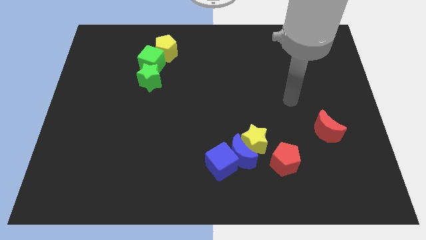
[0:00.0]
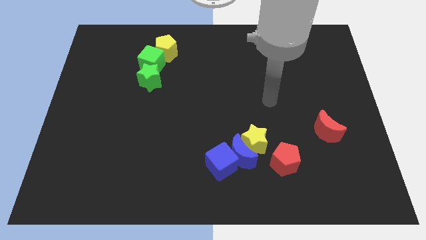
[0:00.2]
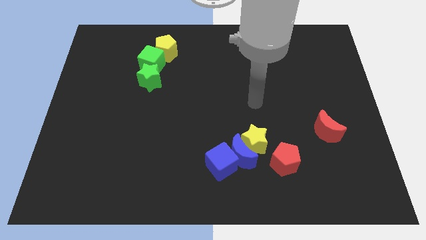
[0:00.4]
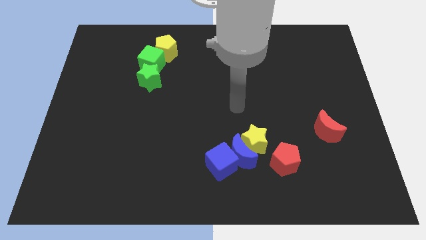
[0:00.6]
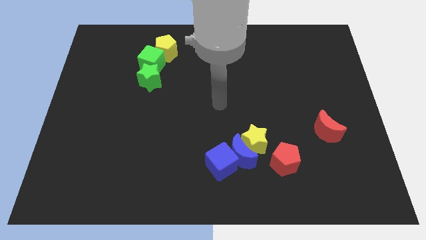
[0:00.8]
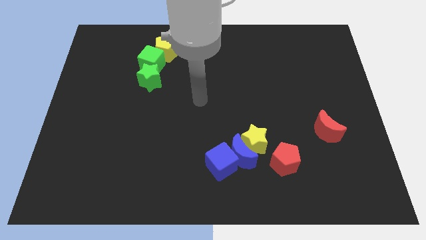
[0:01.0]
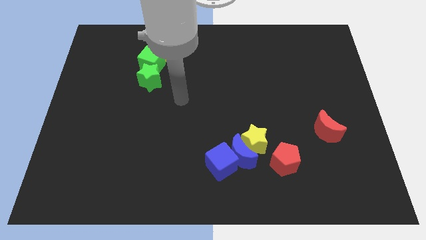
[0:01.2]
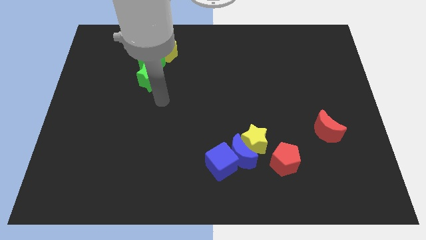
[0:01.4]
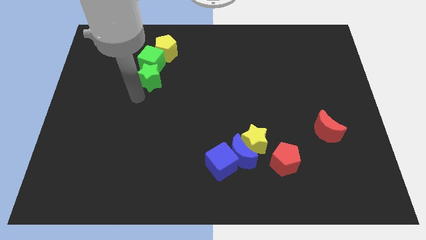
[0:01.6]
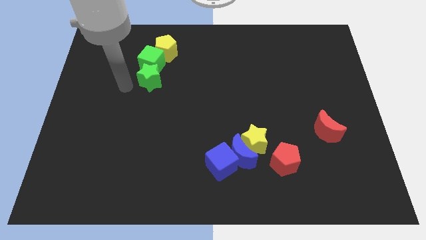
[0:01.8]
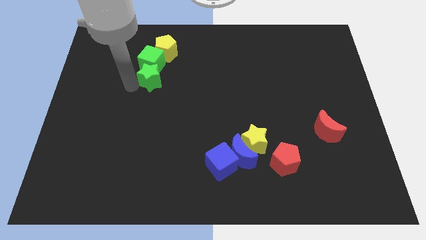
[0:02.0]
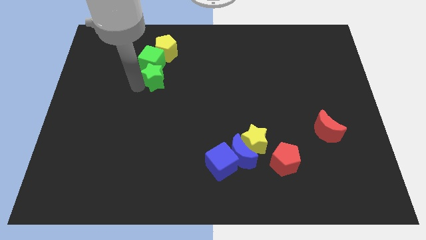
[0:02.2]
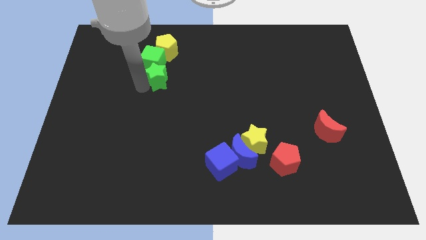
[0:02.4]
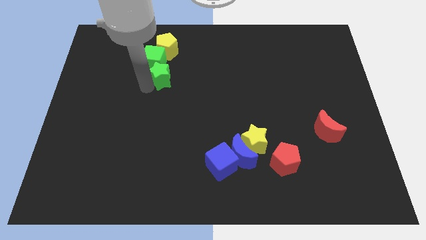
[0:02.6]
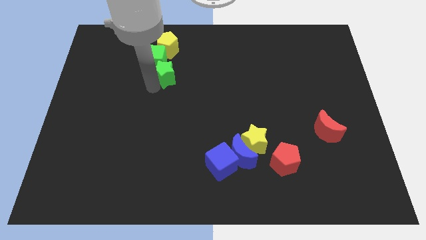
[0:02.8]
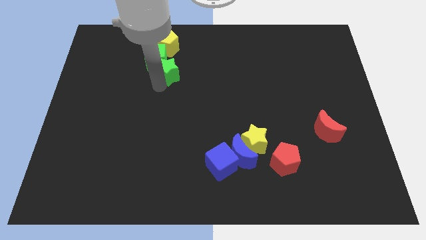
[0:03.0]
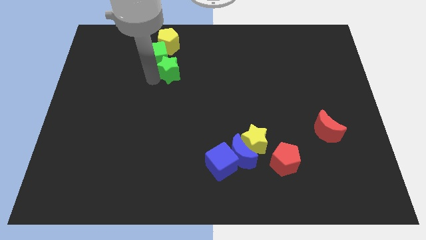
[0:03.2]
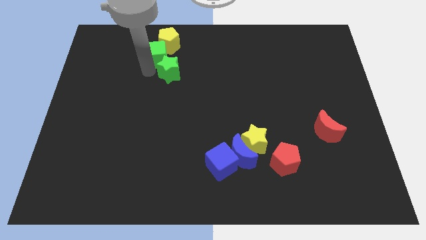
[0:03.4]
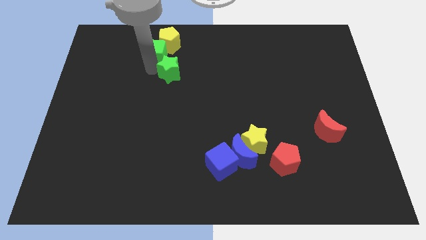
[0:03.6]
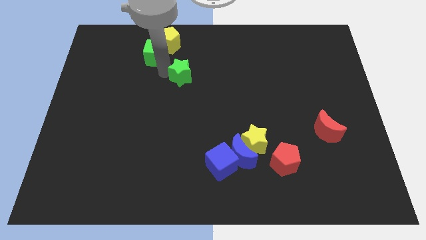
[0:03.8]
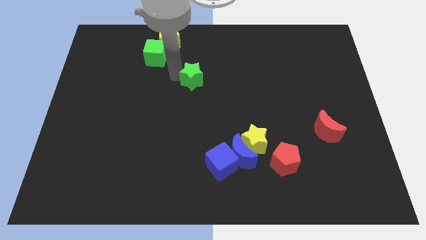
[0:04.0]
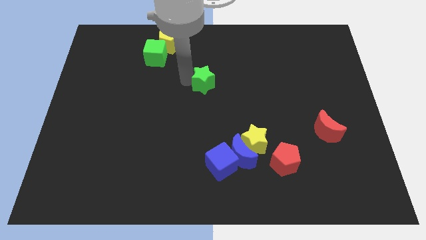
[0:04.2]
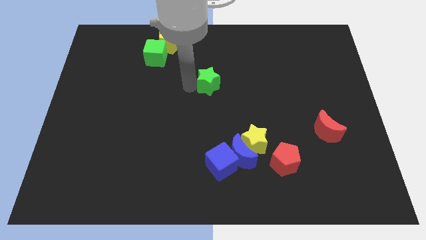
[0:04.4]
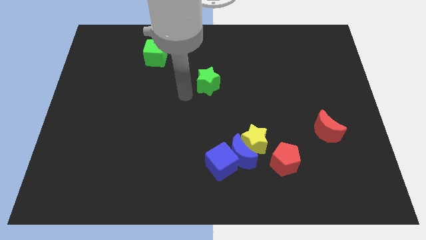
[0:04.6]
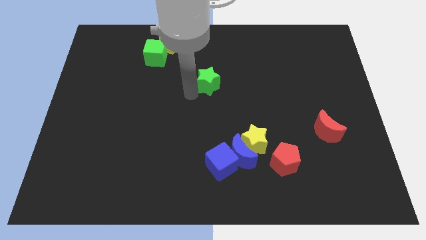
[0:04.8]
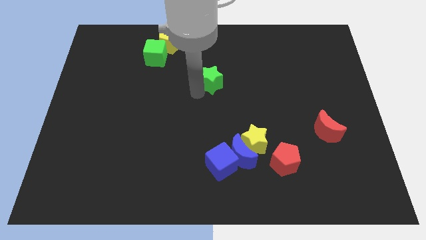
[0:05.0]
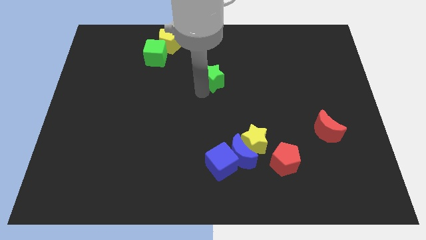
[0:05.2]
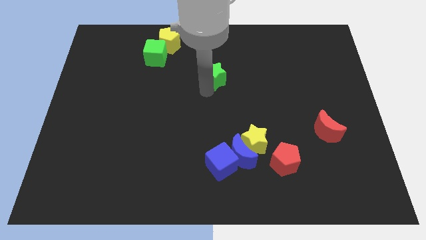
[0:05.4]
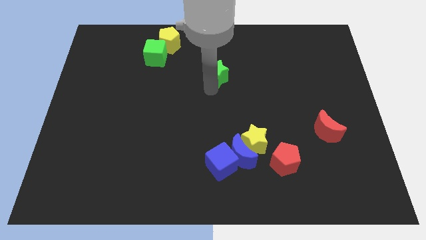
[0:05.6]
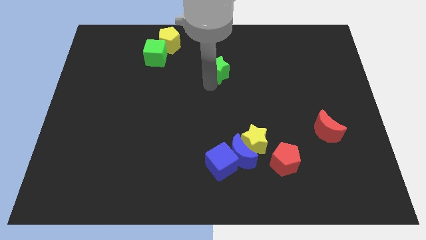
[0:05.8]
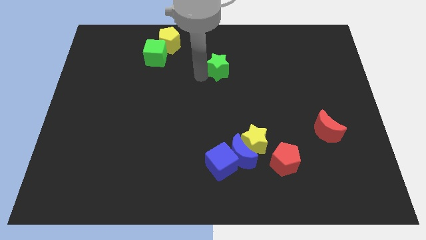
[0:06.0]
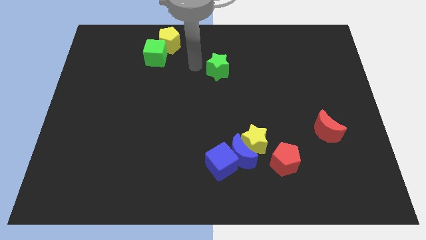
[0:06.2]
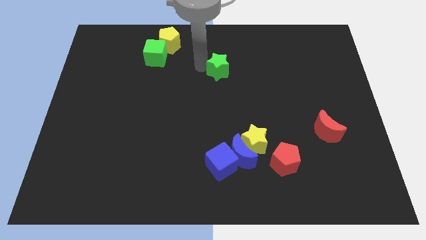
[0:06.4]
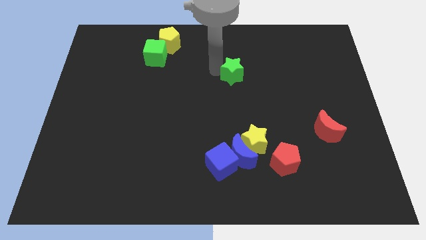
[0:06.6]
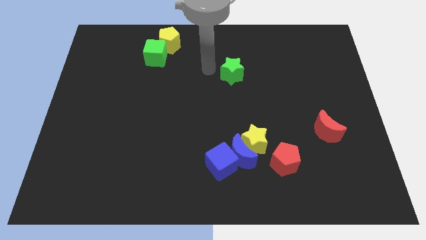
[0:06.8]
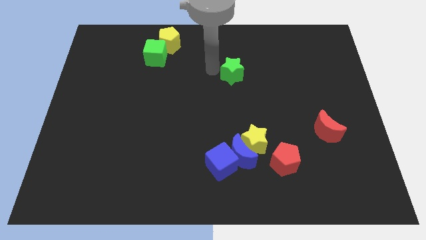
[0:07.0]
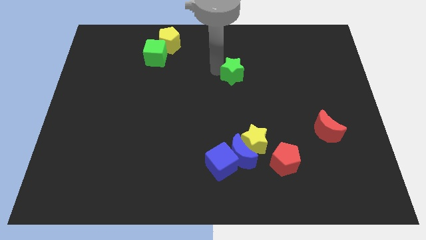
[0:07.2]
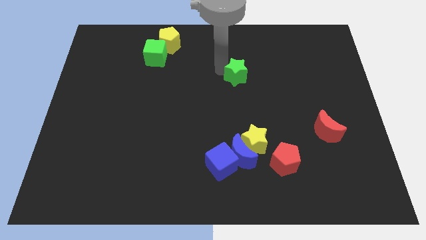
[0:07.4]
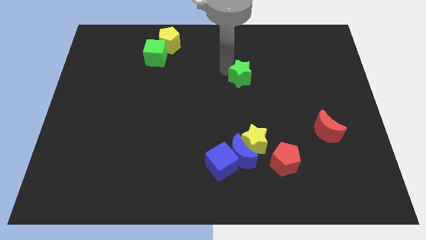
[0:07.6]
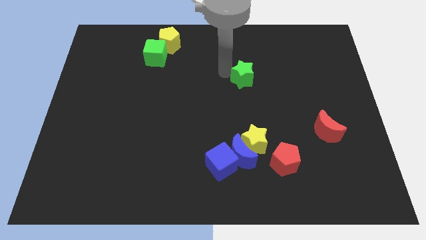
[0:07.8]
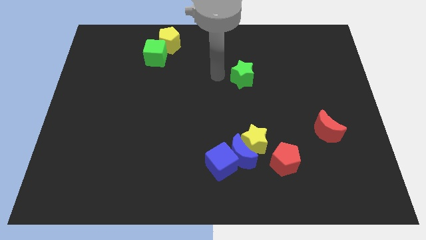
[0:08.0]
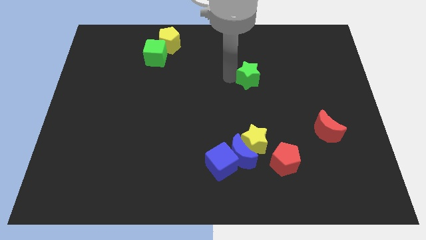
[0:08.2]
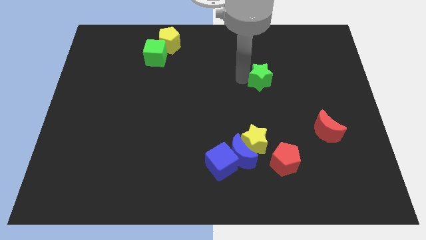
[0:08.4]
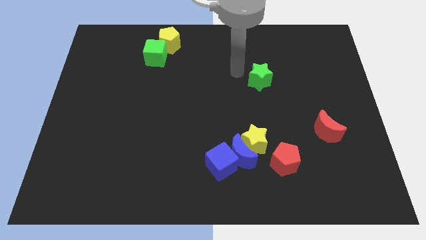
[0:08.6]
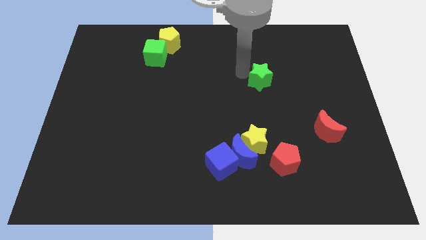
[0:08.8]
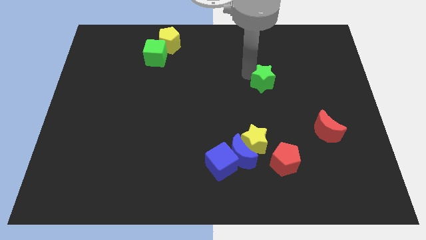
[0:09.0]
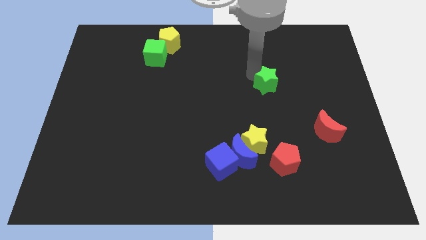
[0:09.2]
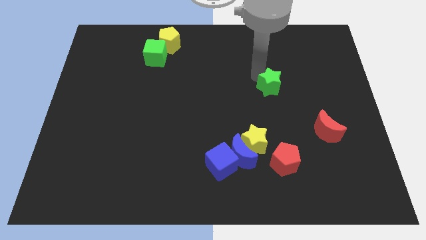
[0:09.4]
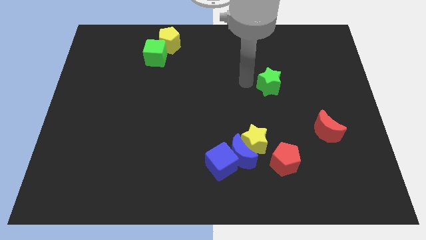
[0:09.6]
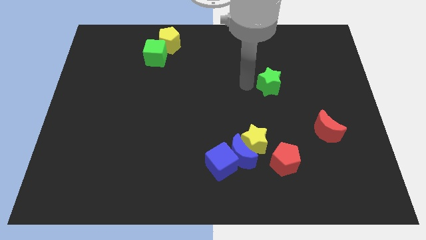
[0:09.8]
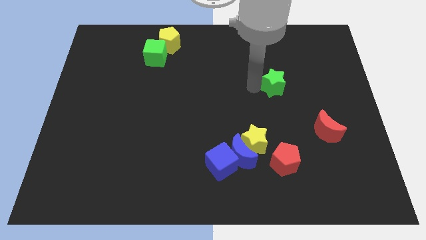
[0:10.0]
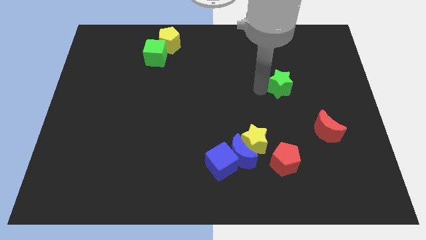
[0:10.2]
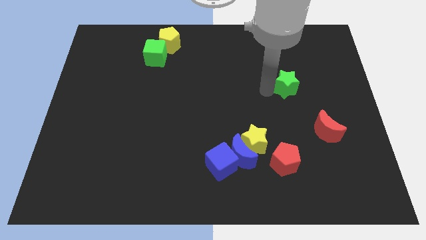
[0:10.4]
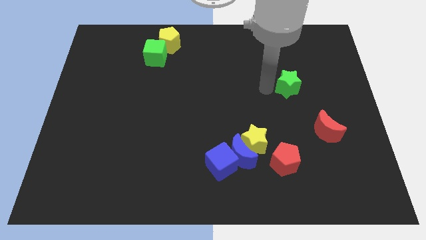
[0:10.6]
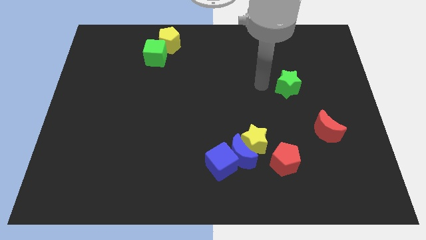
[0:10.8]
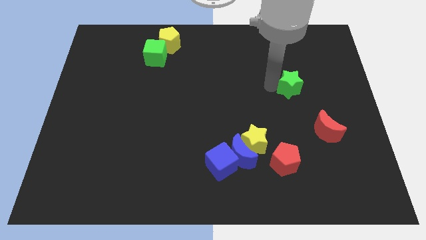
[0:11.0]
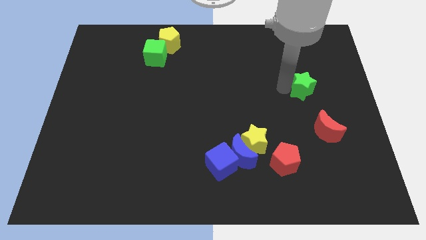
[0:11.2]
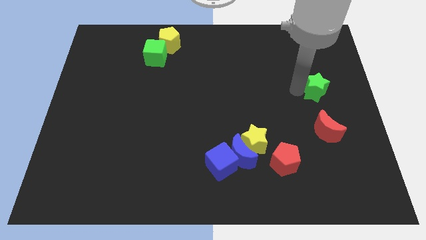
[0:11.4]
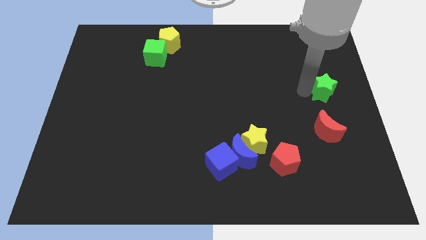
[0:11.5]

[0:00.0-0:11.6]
slide the green star to the right side
